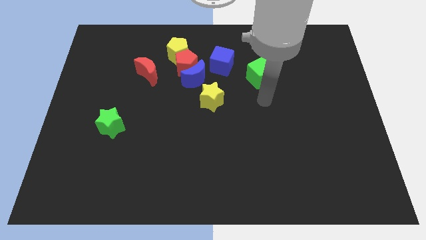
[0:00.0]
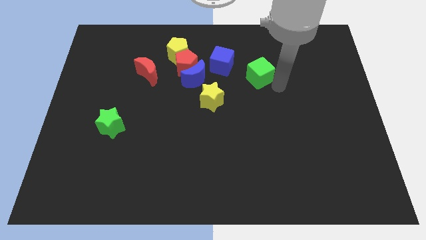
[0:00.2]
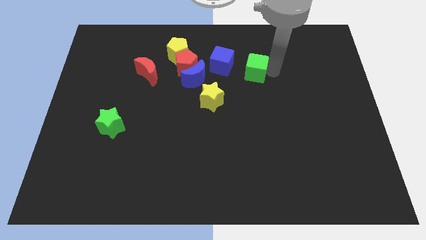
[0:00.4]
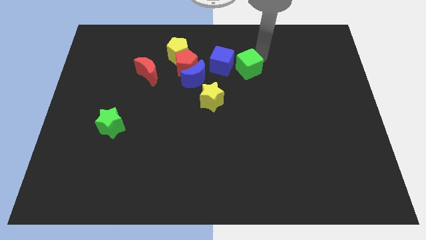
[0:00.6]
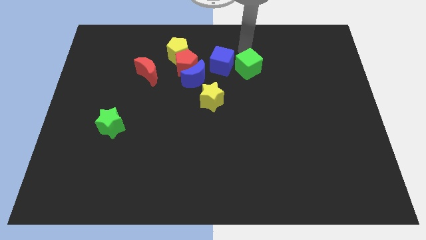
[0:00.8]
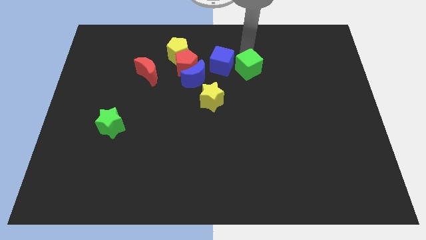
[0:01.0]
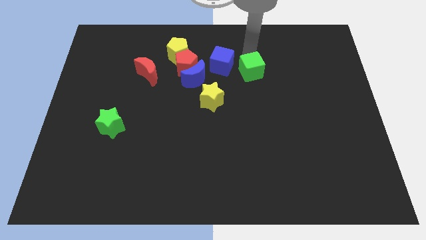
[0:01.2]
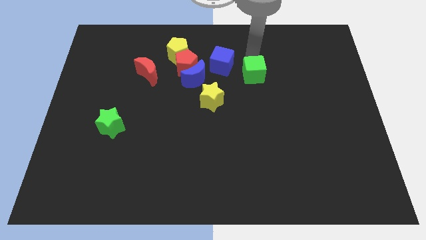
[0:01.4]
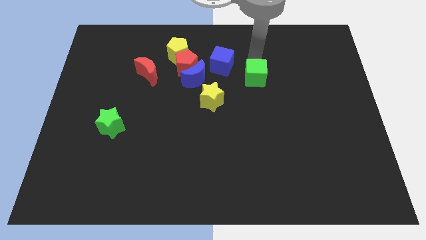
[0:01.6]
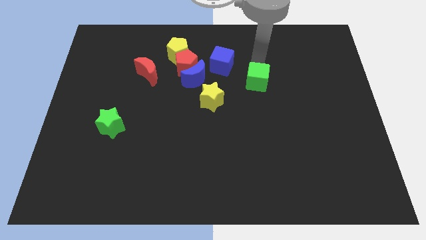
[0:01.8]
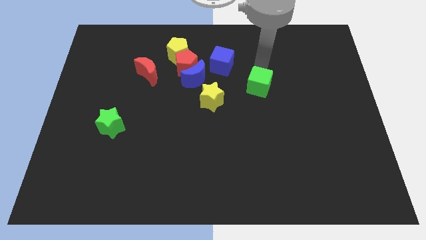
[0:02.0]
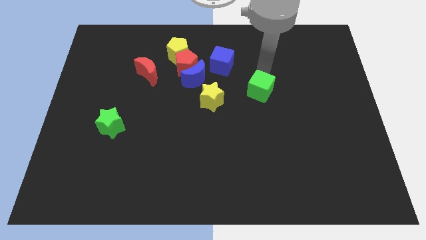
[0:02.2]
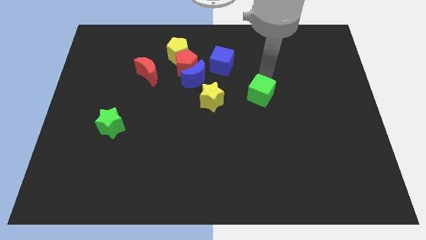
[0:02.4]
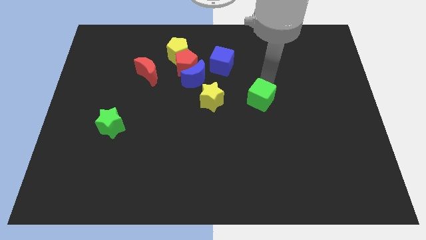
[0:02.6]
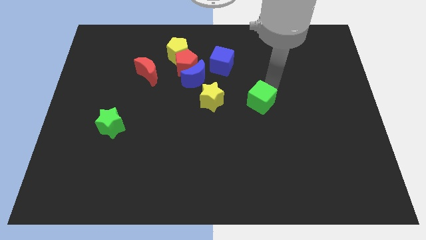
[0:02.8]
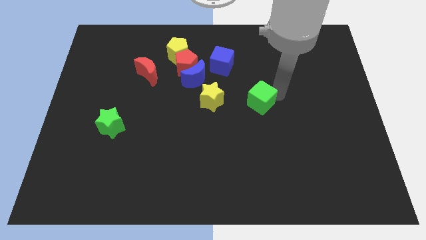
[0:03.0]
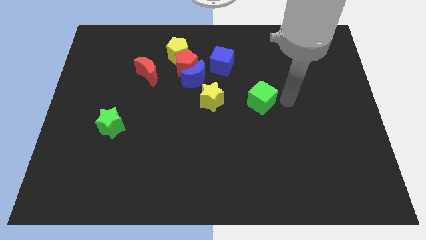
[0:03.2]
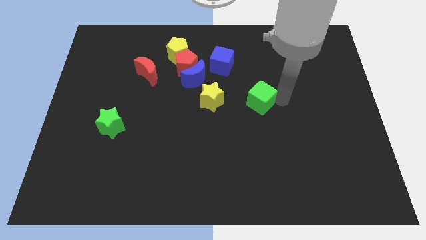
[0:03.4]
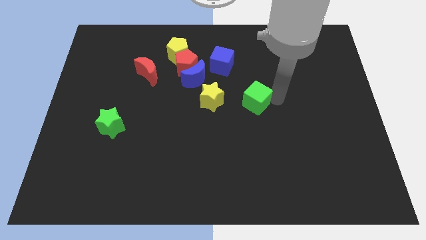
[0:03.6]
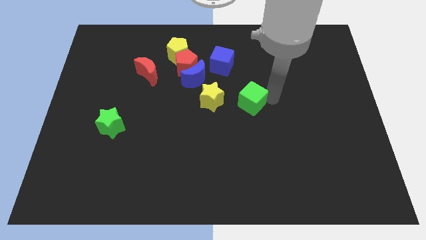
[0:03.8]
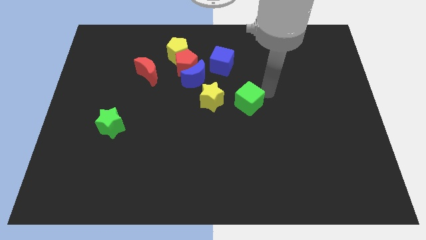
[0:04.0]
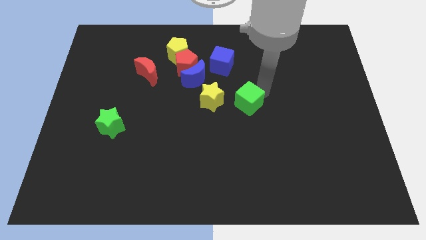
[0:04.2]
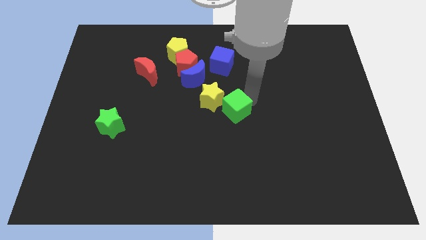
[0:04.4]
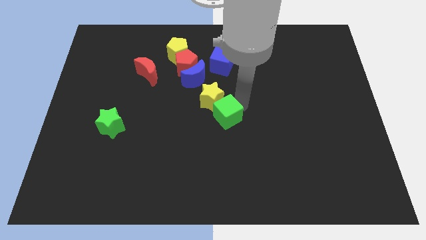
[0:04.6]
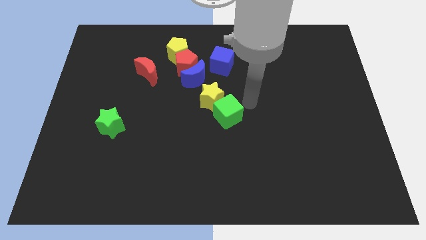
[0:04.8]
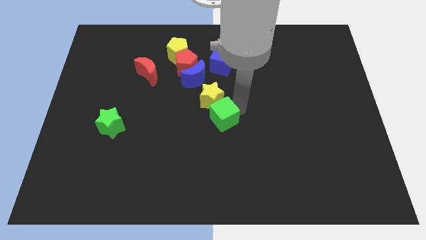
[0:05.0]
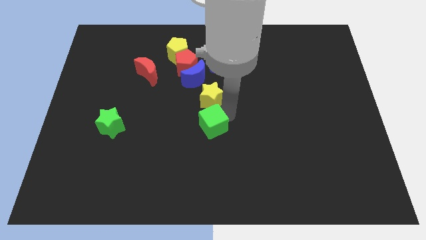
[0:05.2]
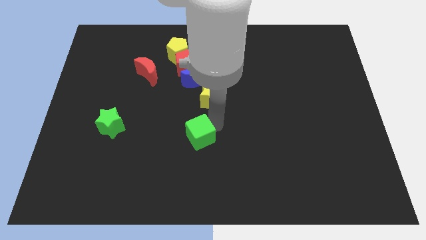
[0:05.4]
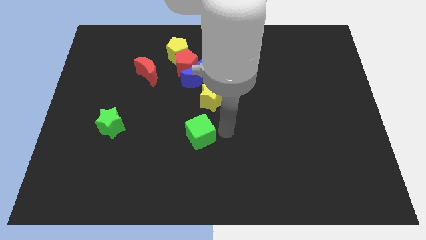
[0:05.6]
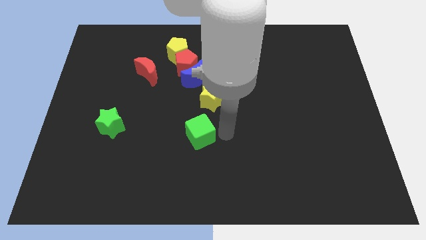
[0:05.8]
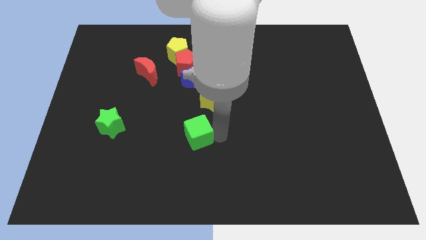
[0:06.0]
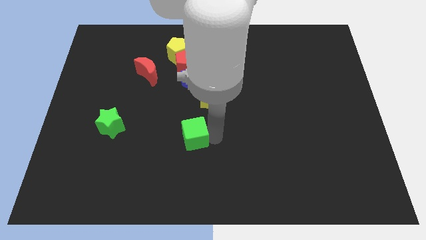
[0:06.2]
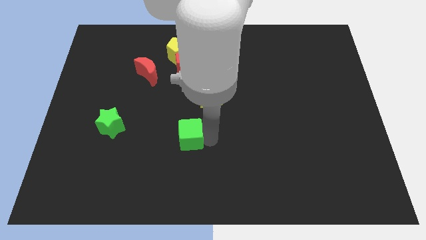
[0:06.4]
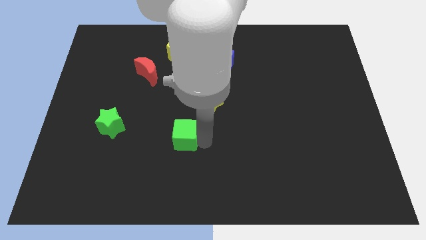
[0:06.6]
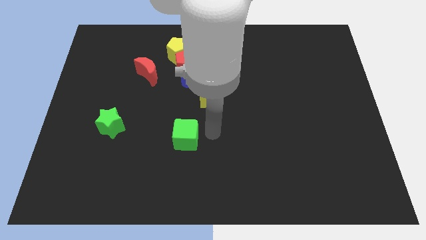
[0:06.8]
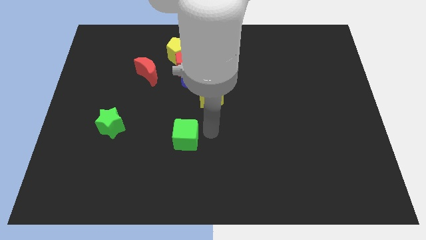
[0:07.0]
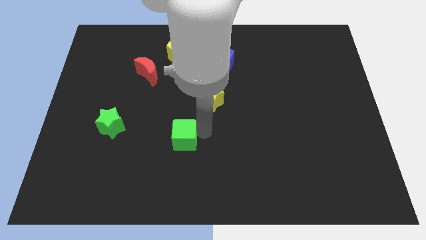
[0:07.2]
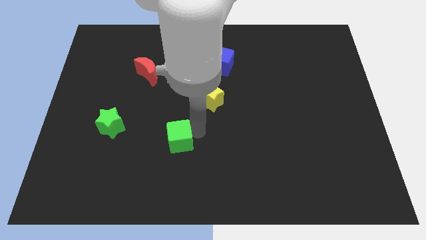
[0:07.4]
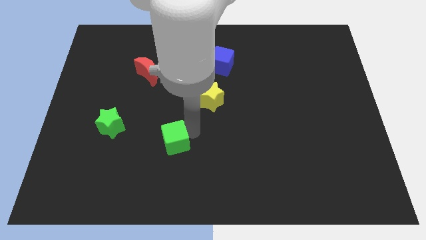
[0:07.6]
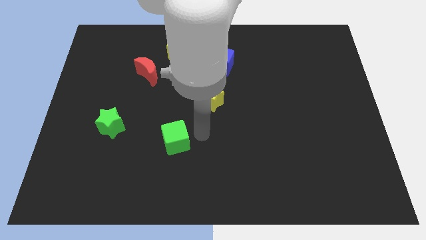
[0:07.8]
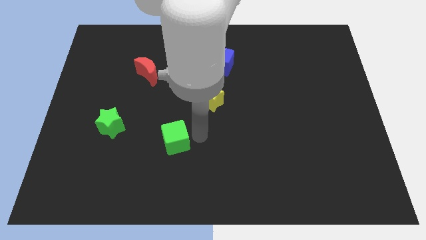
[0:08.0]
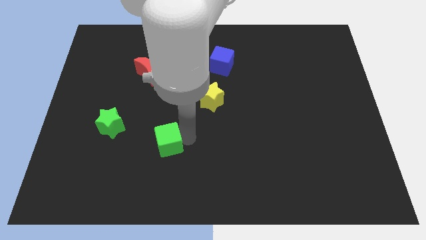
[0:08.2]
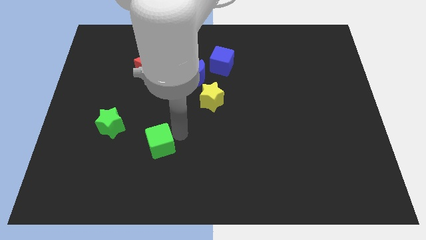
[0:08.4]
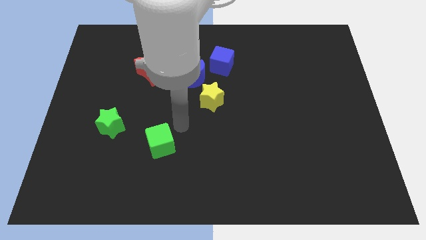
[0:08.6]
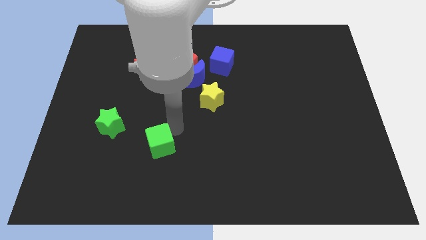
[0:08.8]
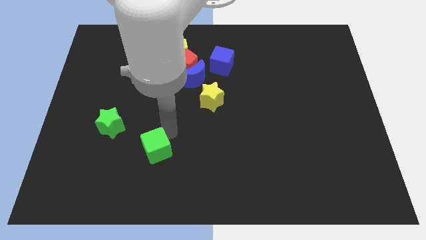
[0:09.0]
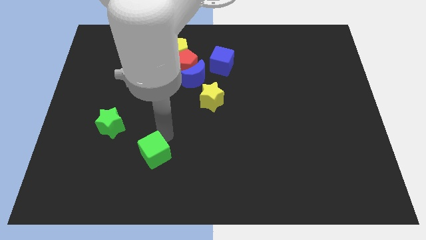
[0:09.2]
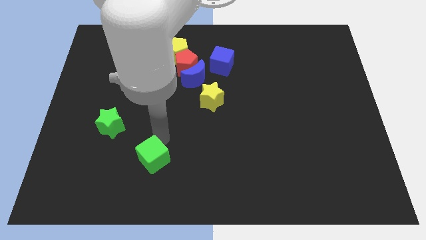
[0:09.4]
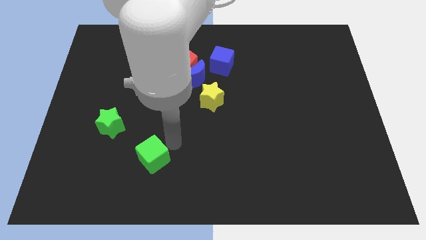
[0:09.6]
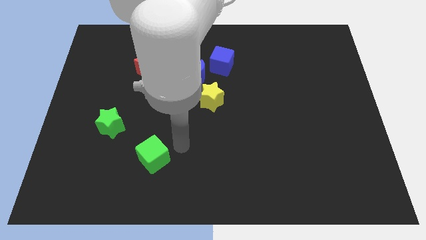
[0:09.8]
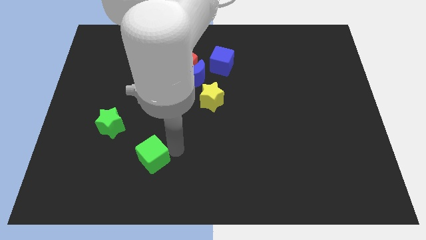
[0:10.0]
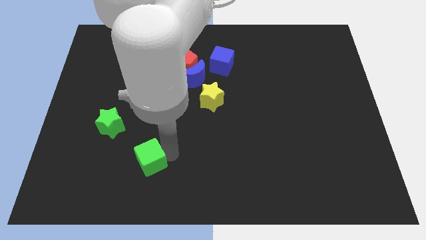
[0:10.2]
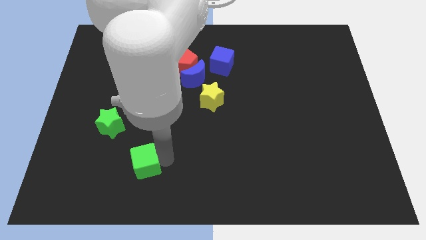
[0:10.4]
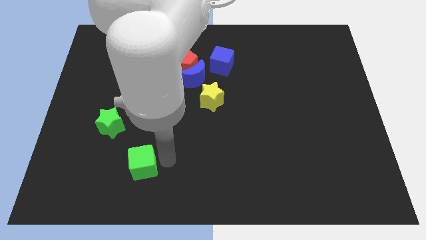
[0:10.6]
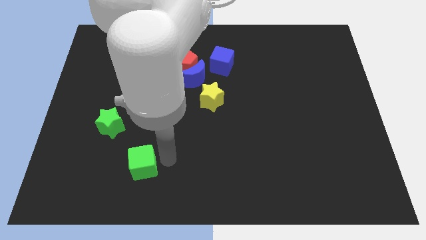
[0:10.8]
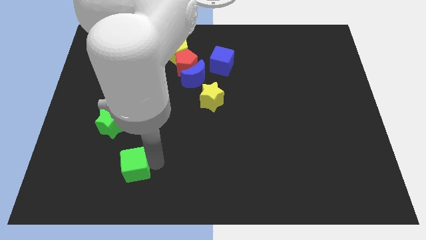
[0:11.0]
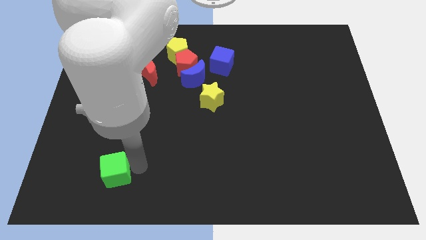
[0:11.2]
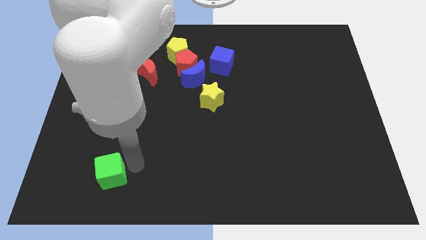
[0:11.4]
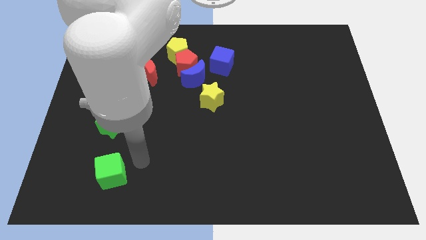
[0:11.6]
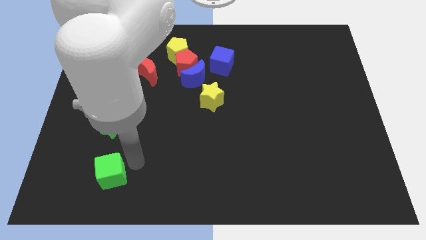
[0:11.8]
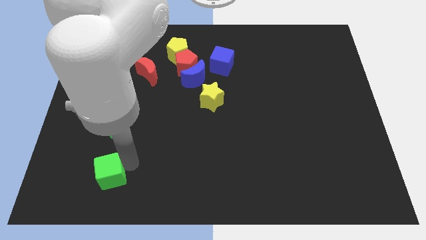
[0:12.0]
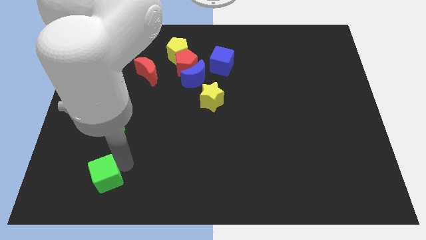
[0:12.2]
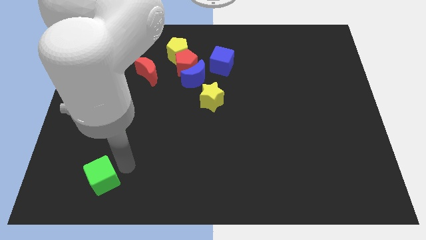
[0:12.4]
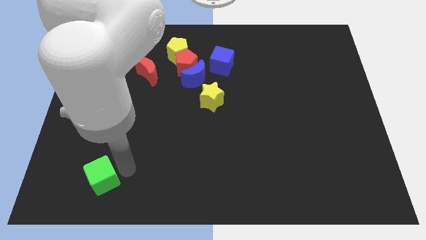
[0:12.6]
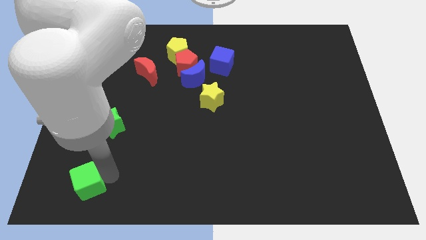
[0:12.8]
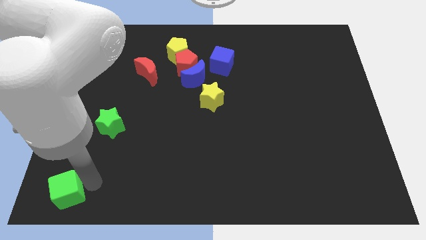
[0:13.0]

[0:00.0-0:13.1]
put the green cube to the lower left corner

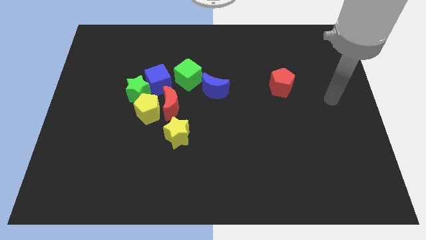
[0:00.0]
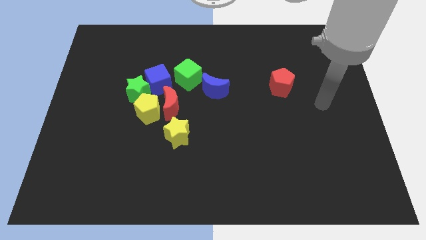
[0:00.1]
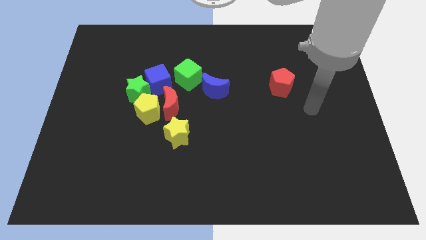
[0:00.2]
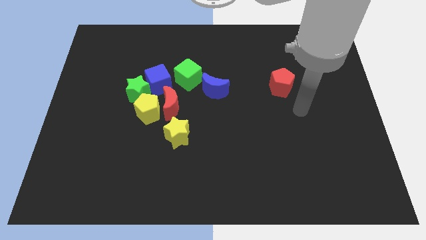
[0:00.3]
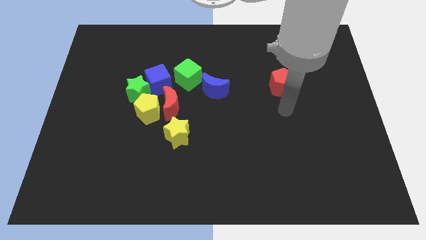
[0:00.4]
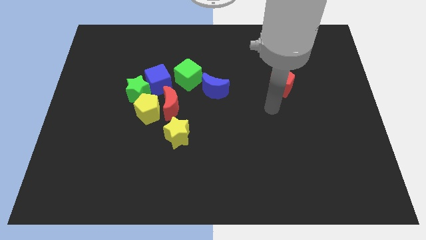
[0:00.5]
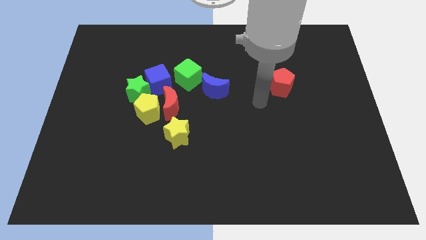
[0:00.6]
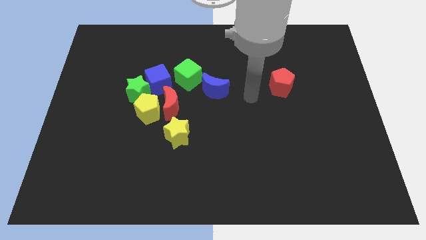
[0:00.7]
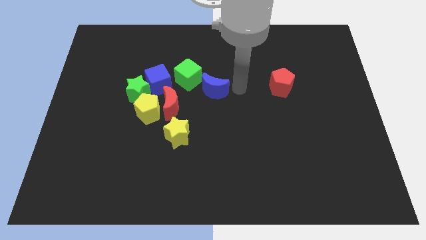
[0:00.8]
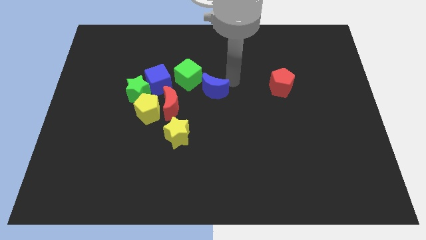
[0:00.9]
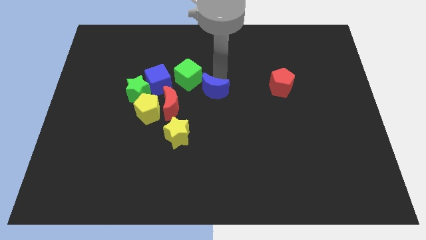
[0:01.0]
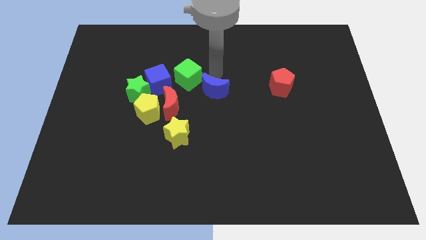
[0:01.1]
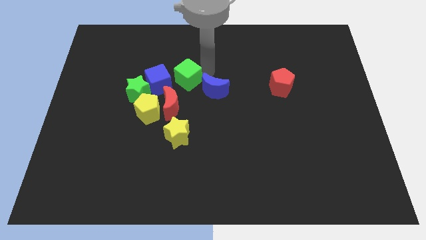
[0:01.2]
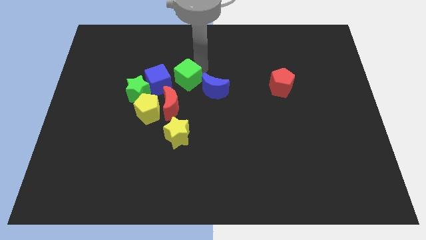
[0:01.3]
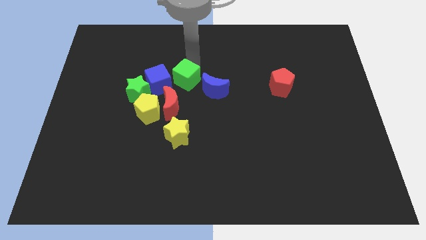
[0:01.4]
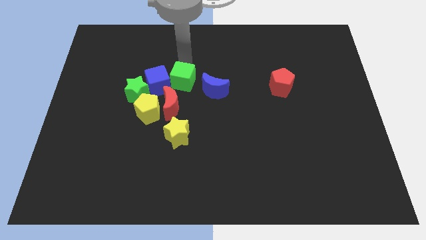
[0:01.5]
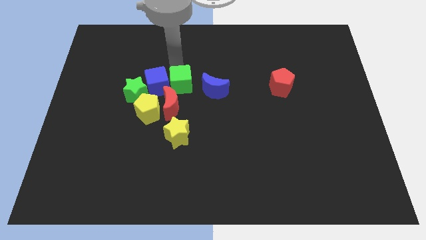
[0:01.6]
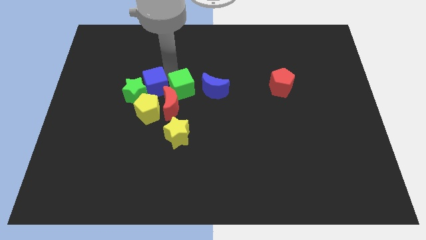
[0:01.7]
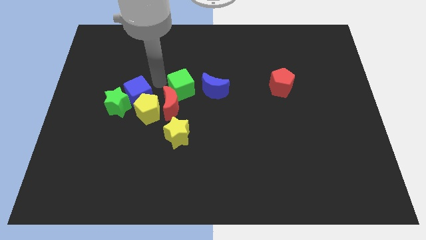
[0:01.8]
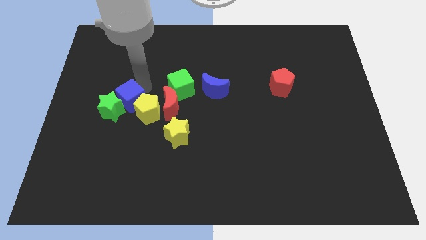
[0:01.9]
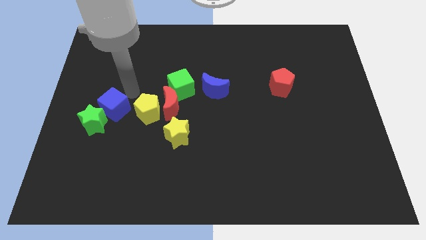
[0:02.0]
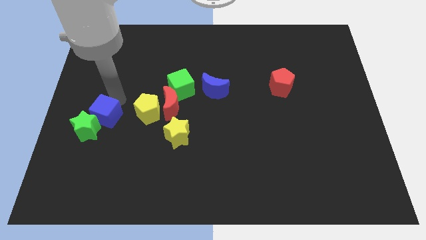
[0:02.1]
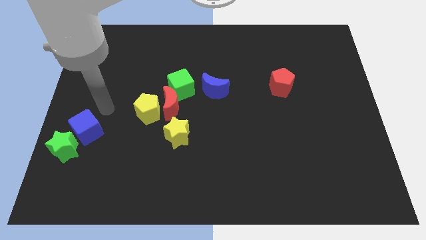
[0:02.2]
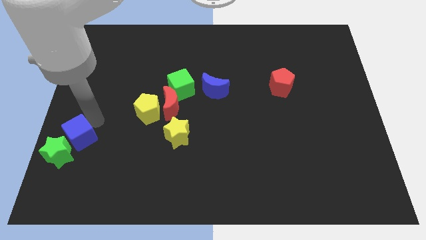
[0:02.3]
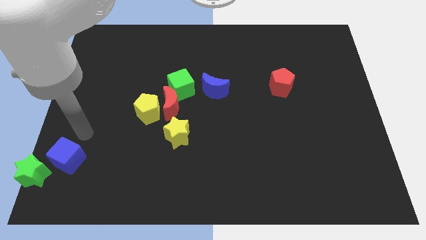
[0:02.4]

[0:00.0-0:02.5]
put the green star to the bottom left of the board
